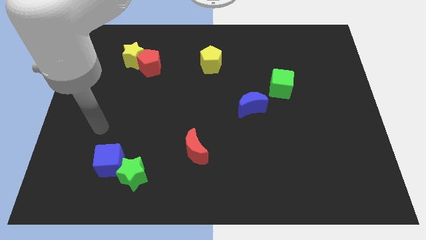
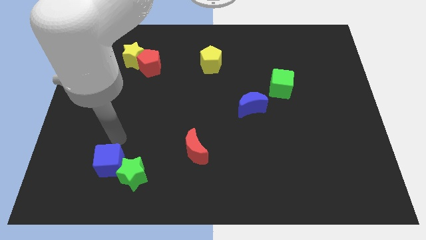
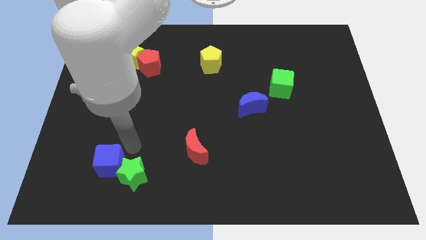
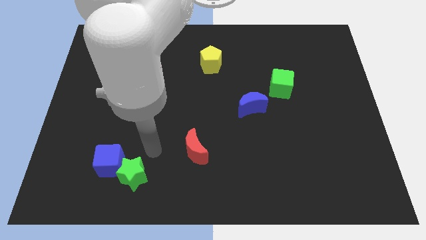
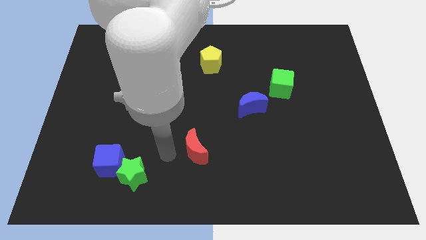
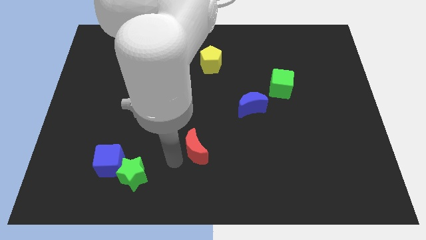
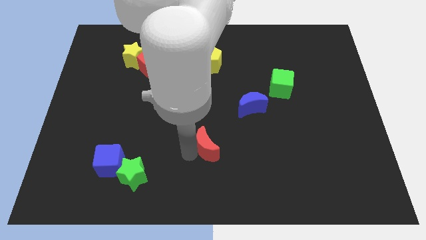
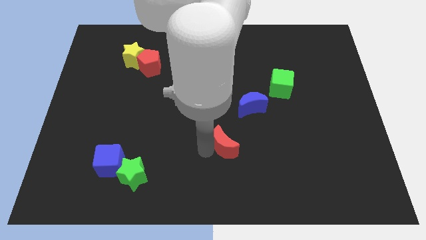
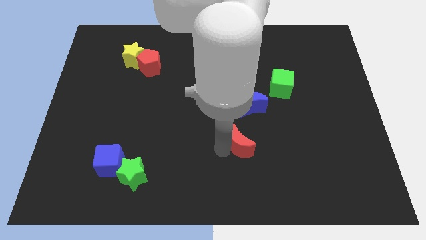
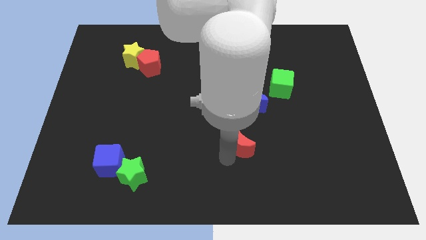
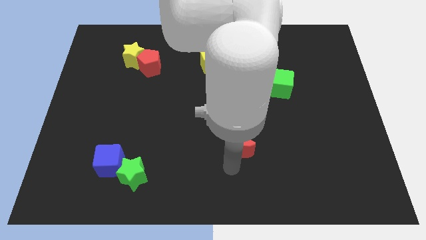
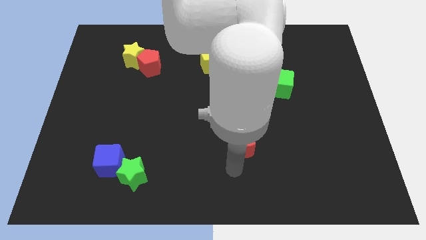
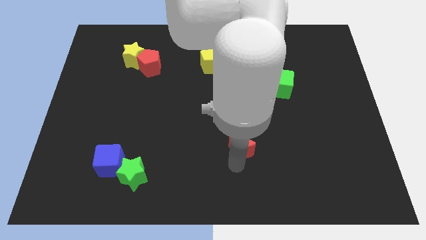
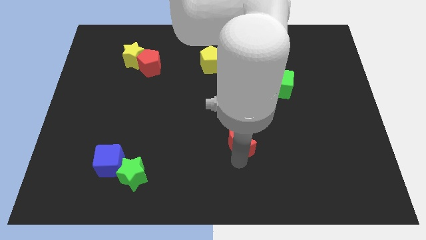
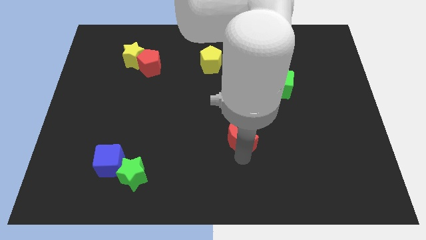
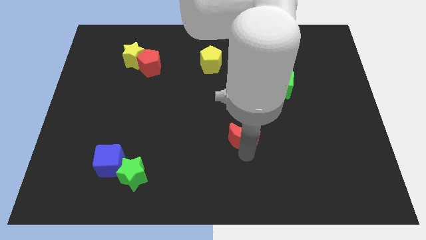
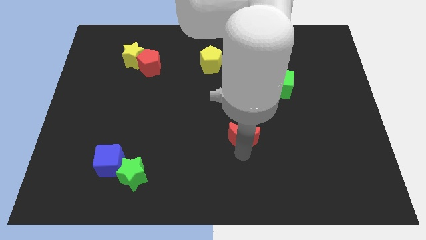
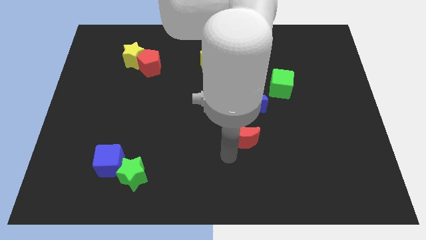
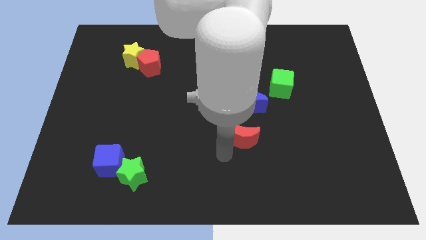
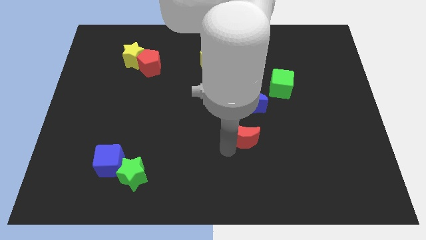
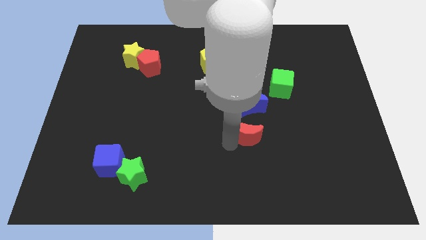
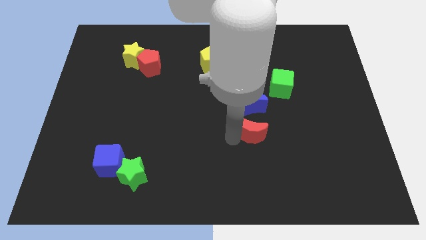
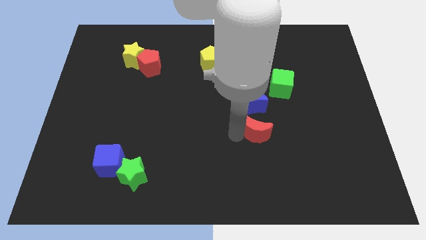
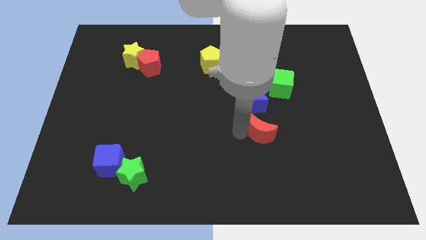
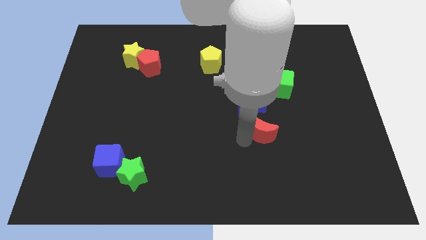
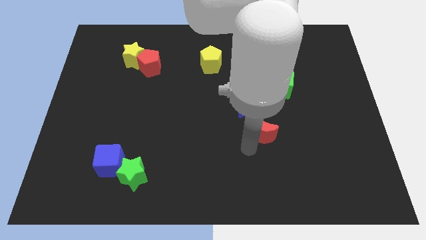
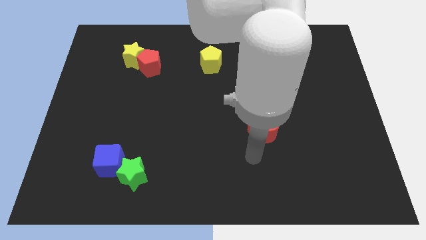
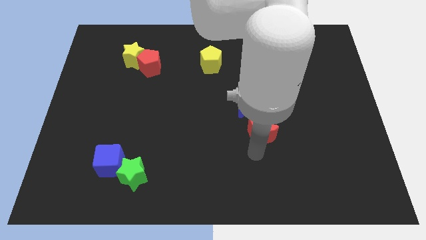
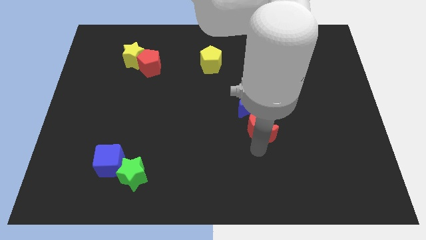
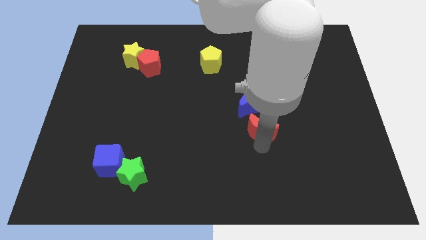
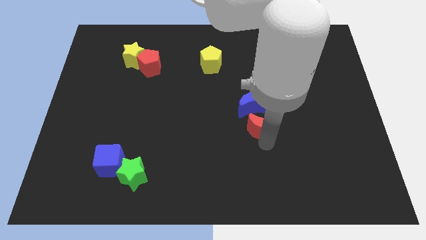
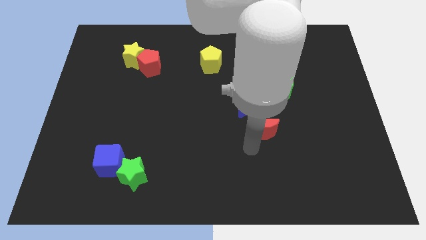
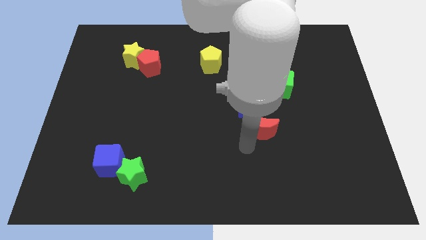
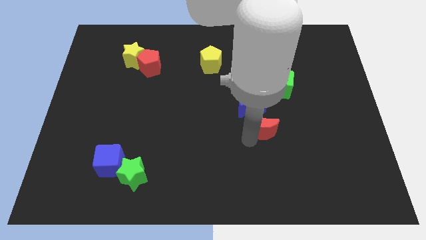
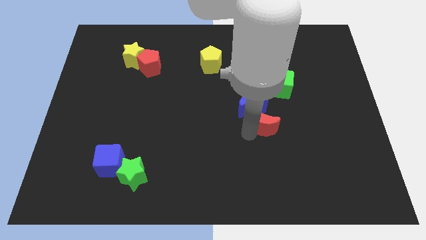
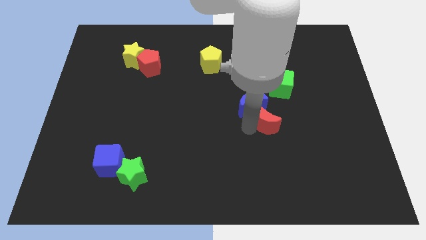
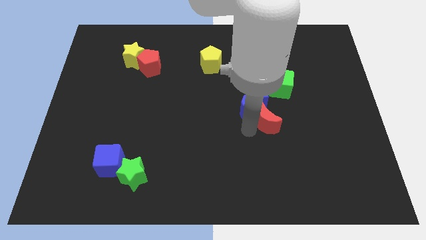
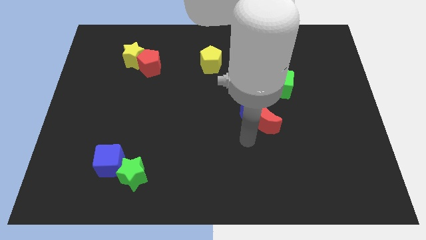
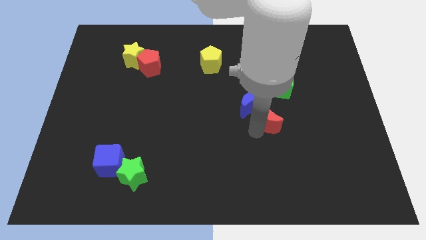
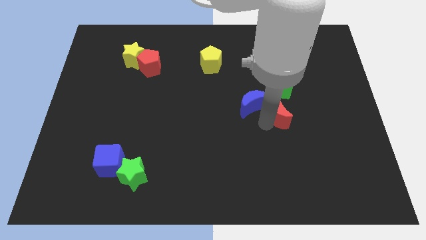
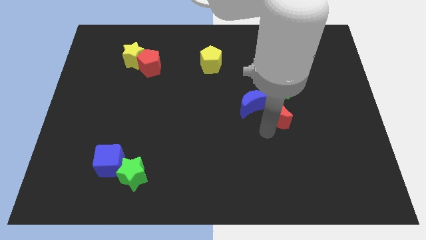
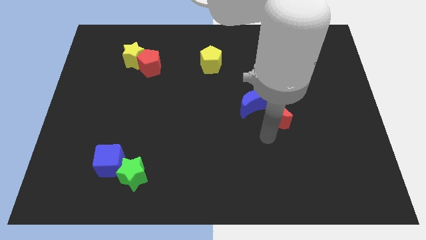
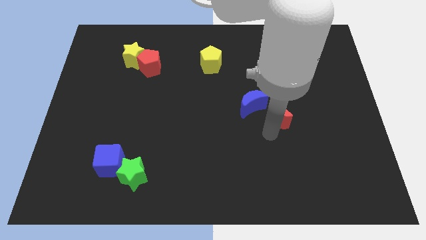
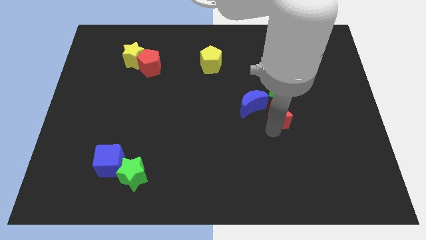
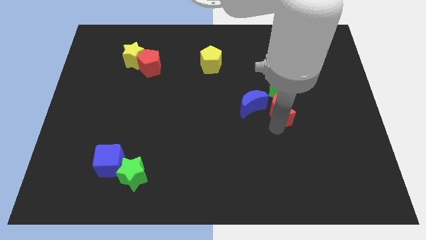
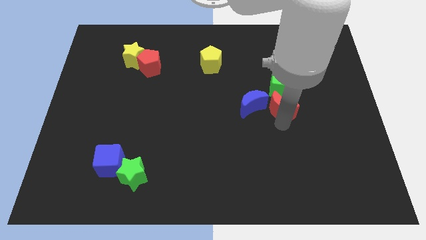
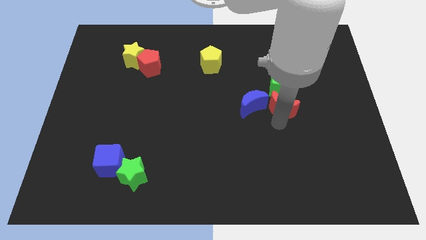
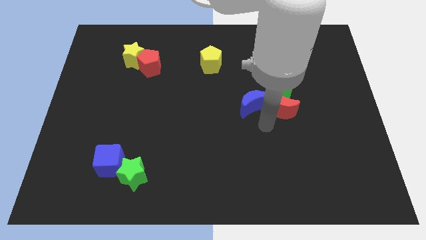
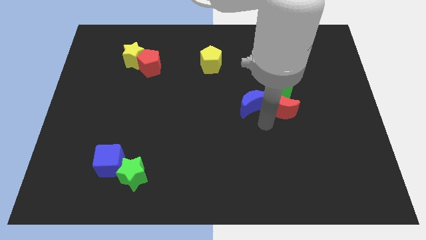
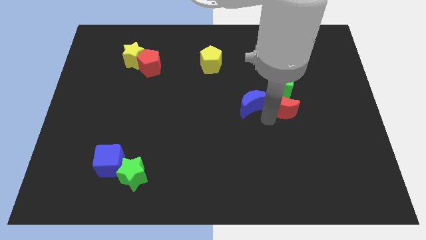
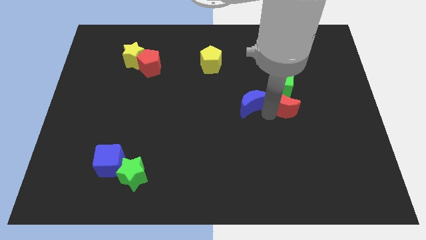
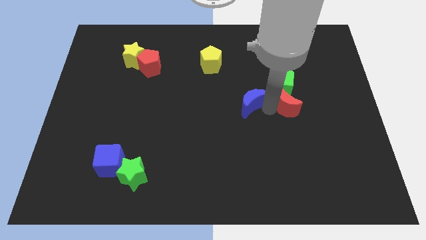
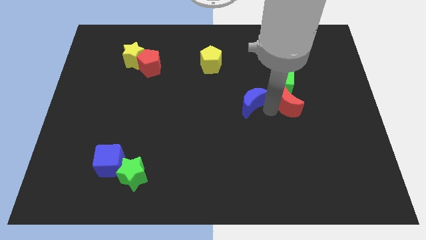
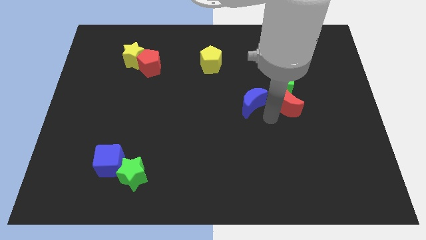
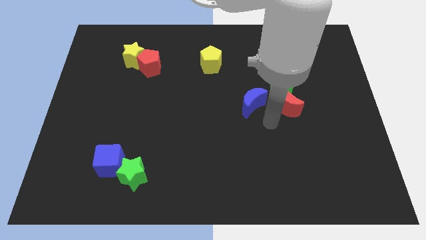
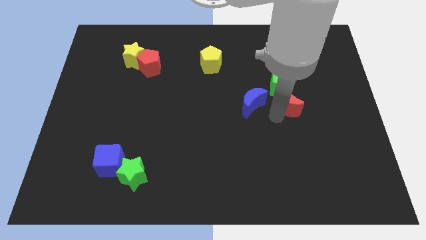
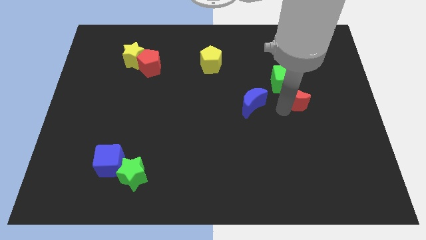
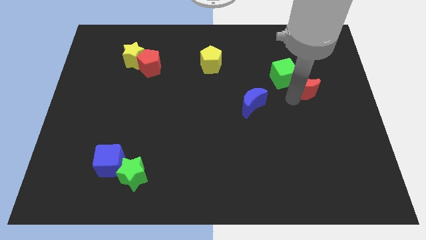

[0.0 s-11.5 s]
put the red moon to the right side of the green cube

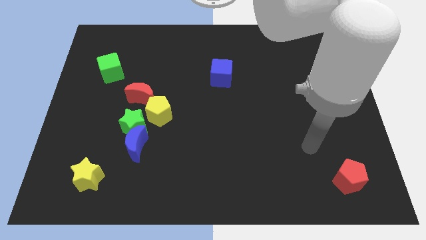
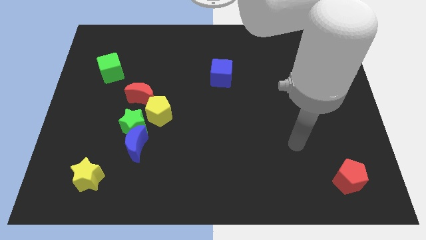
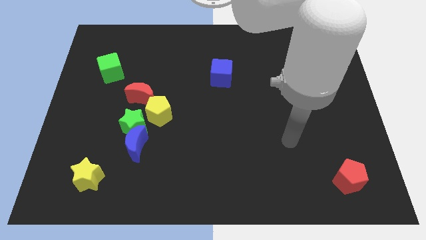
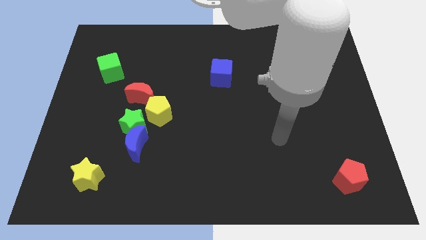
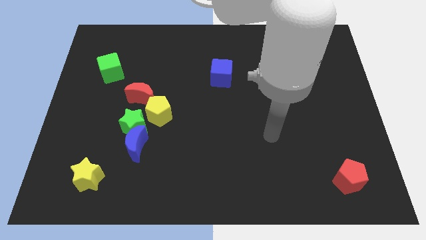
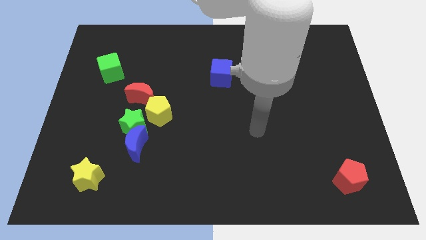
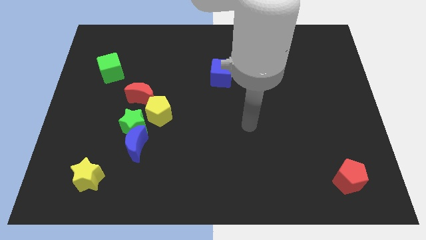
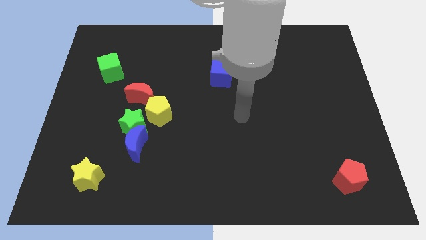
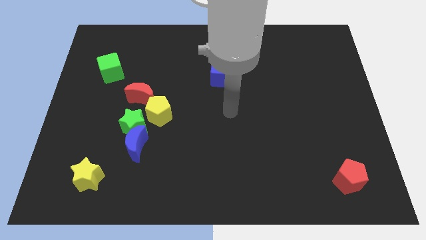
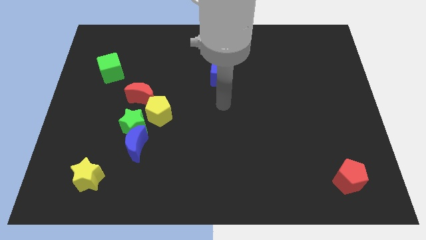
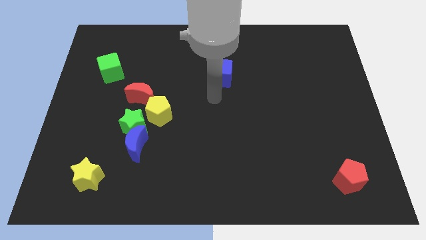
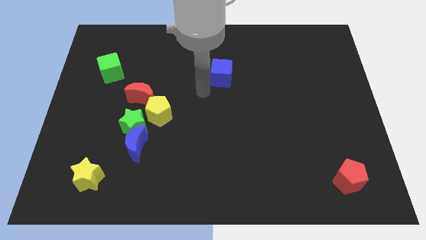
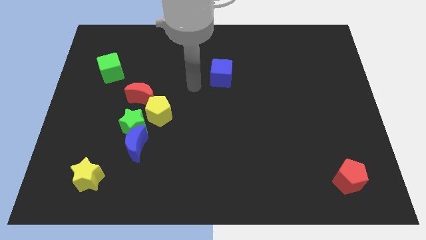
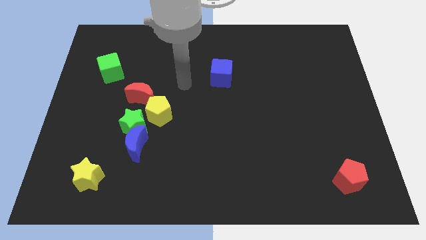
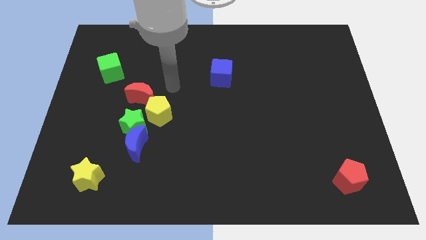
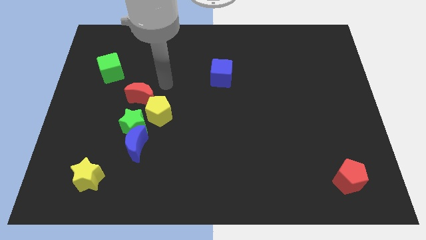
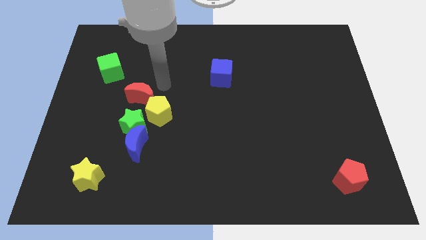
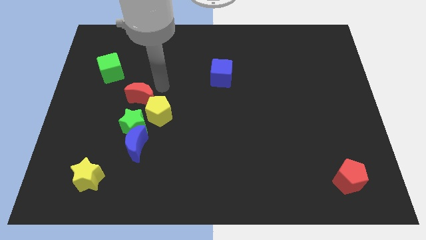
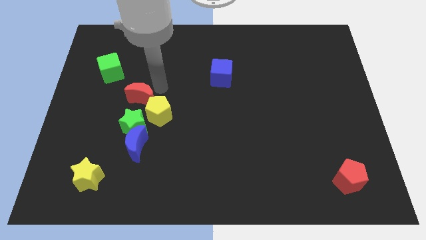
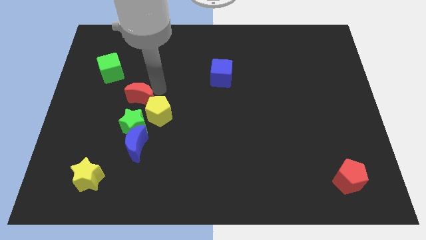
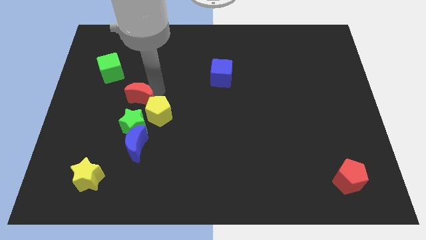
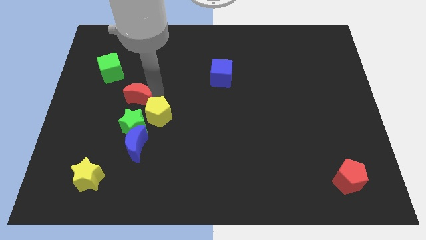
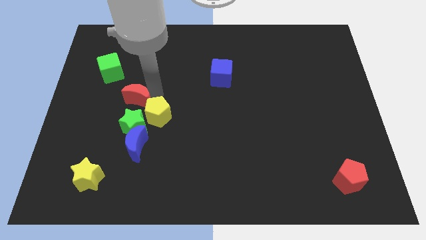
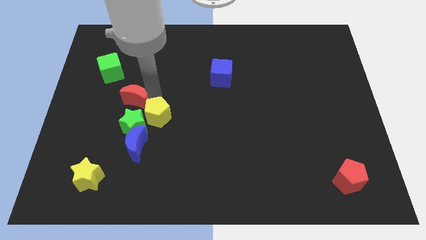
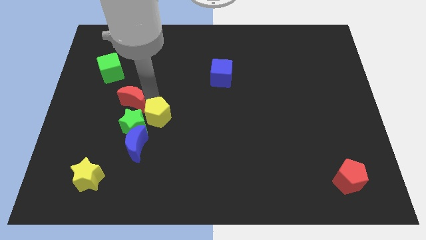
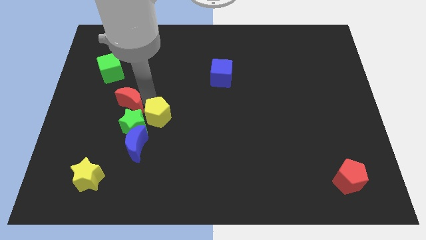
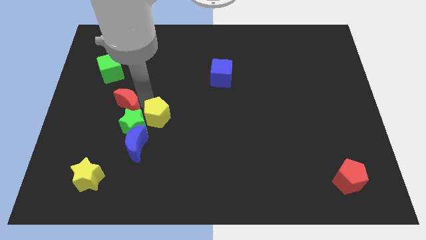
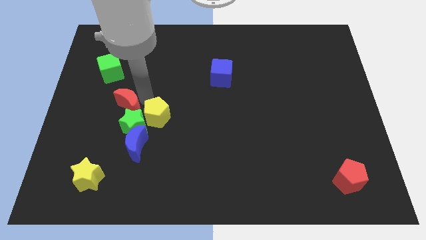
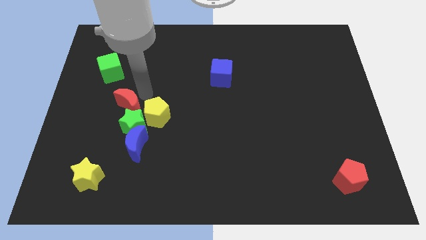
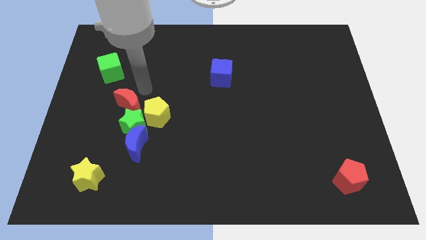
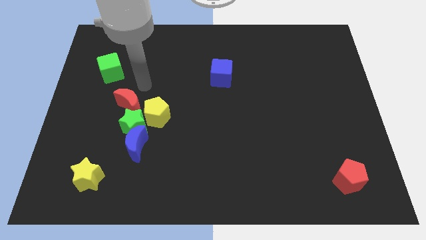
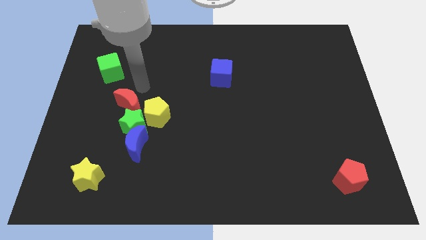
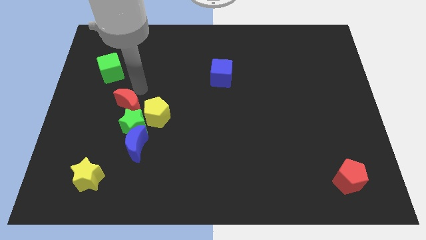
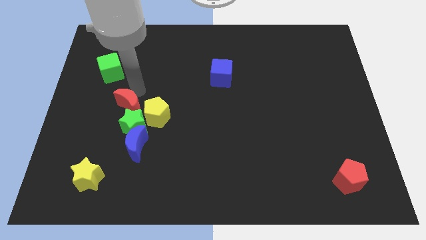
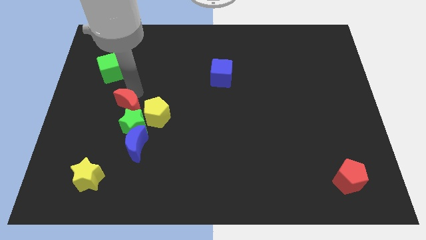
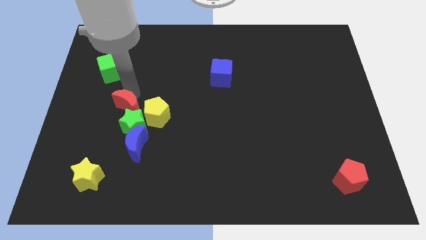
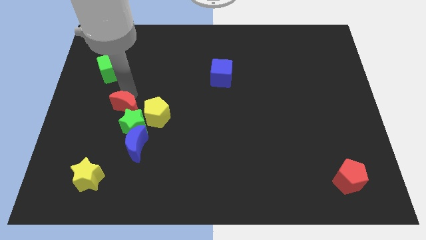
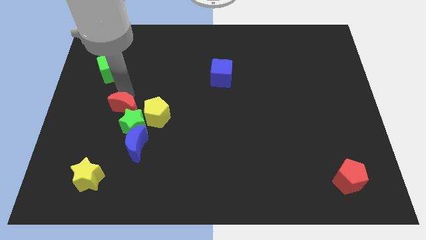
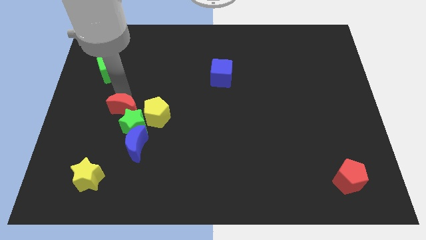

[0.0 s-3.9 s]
put the red moon to the top left of the blue moon
